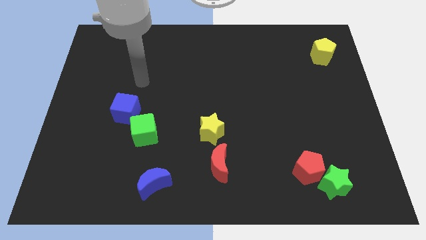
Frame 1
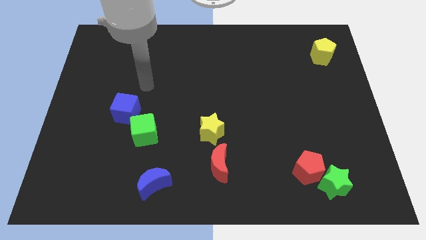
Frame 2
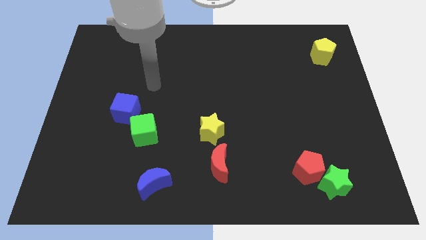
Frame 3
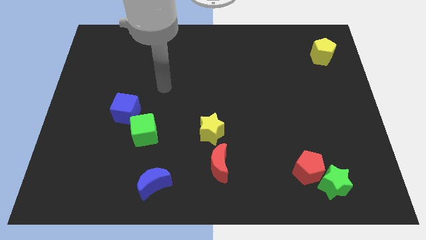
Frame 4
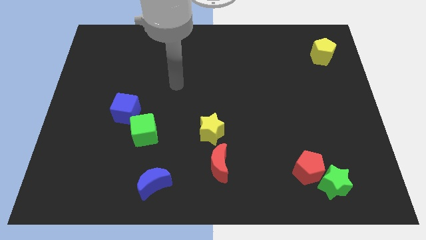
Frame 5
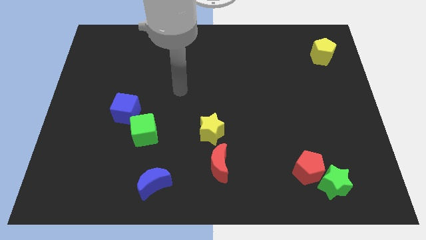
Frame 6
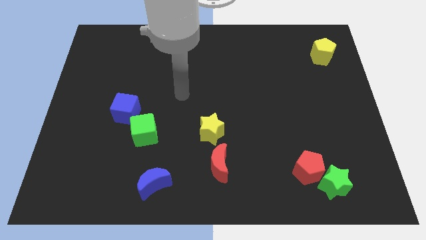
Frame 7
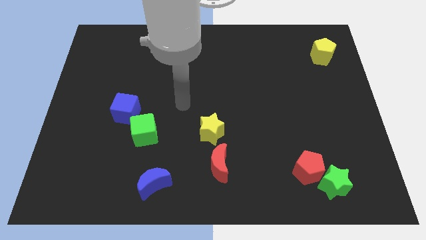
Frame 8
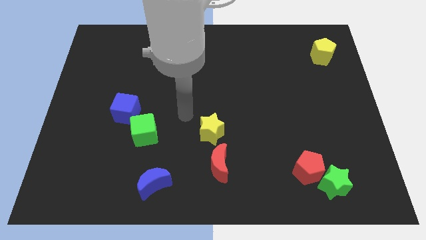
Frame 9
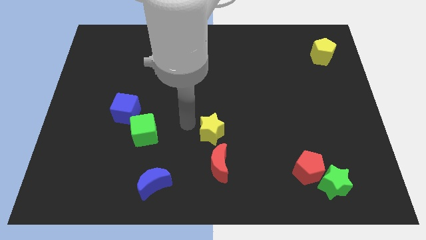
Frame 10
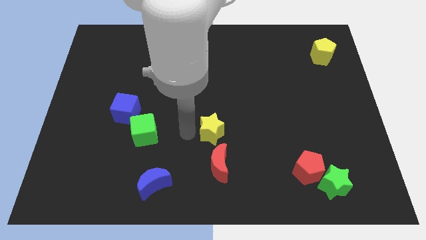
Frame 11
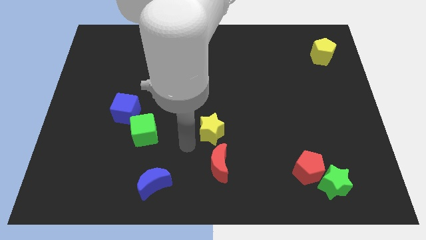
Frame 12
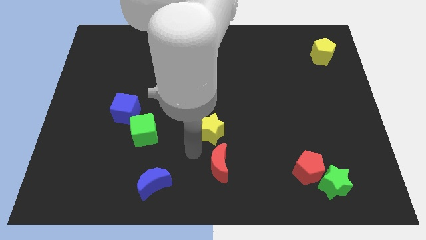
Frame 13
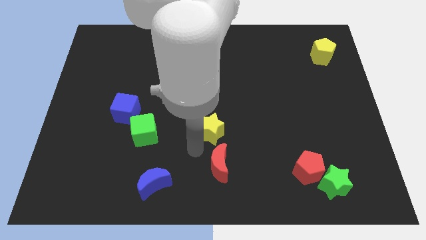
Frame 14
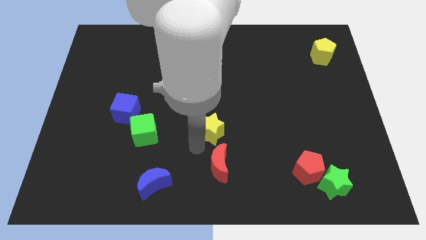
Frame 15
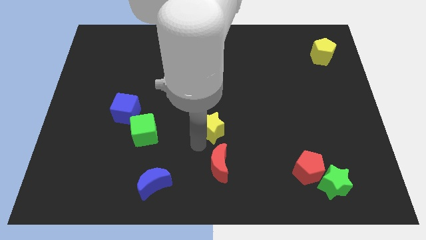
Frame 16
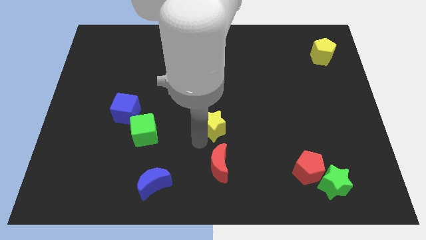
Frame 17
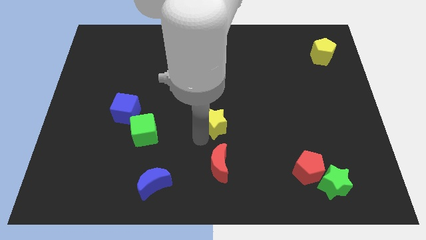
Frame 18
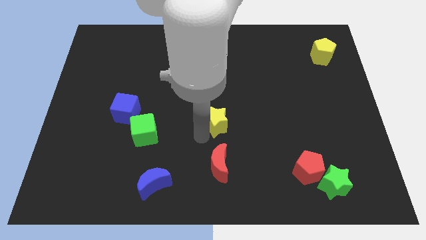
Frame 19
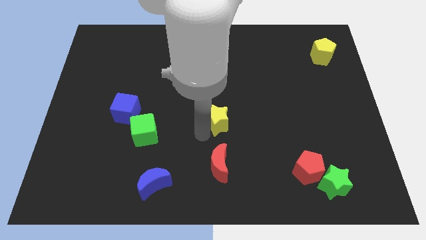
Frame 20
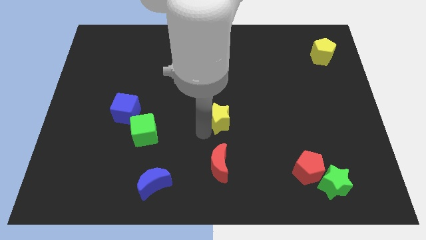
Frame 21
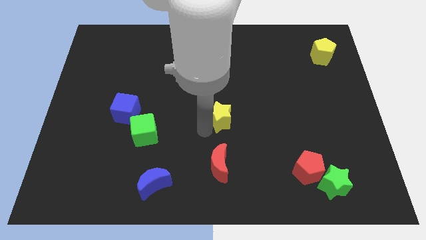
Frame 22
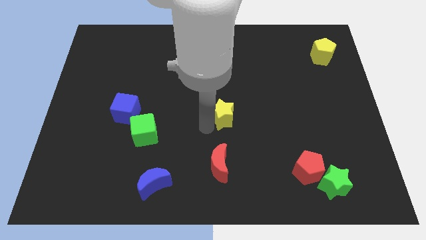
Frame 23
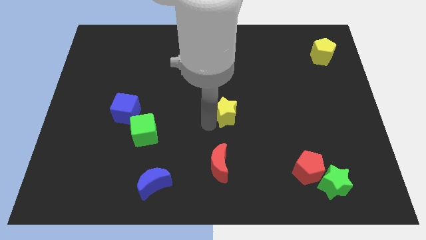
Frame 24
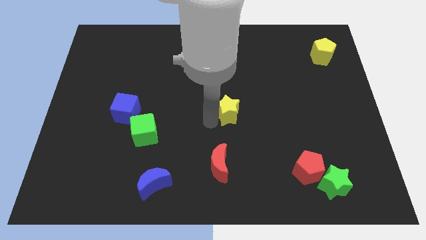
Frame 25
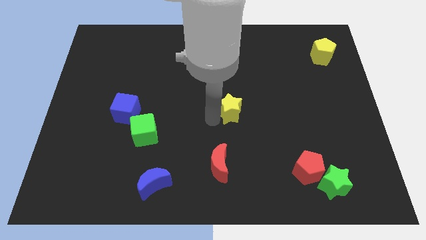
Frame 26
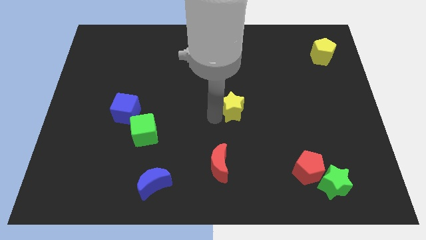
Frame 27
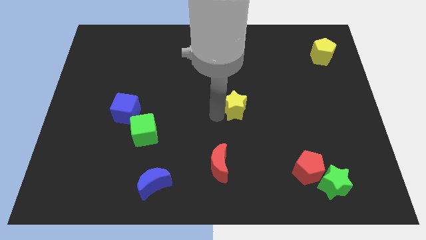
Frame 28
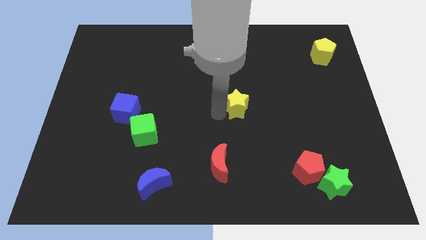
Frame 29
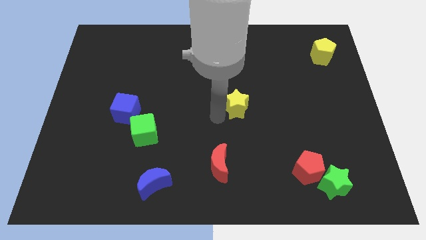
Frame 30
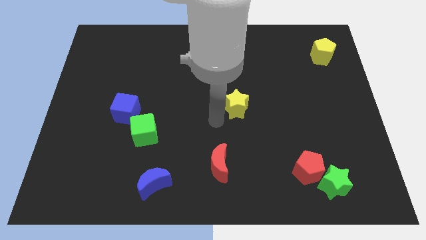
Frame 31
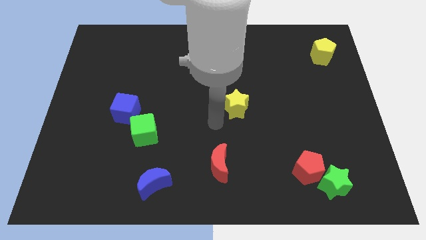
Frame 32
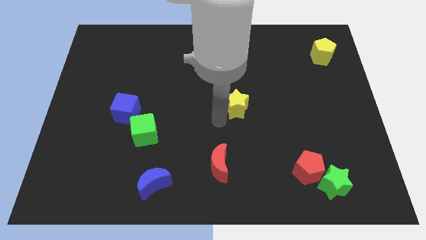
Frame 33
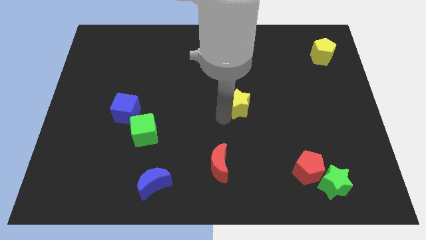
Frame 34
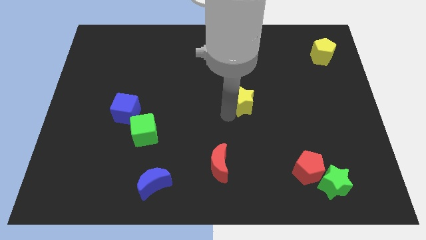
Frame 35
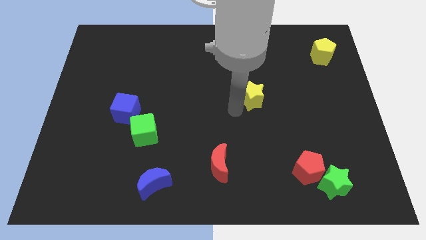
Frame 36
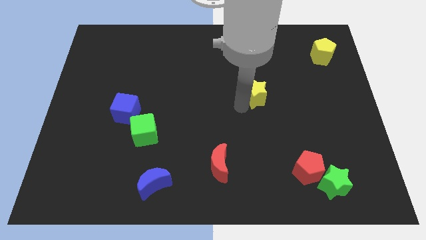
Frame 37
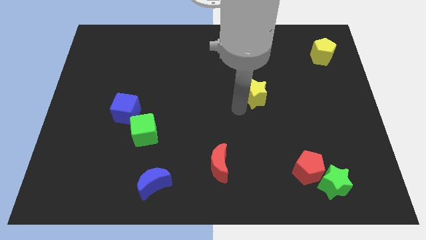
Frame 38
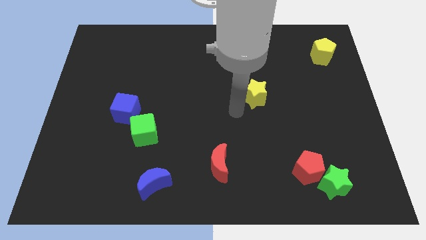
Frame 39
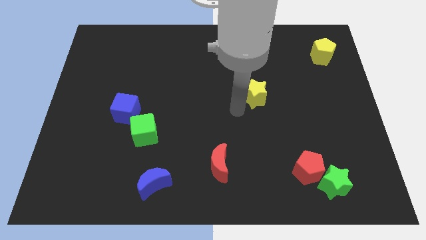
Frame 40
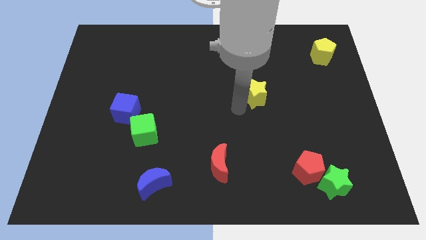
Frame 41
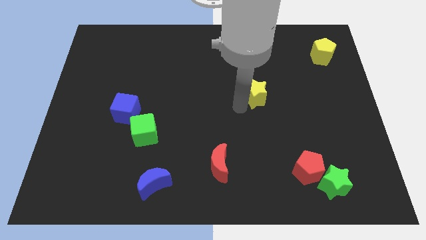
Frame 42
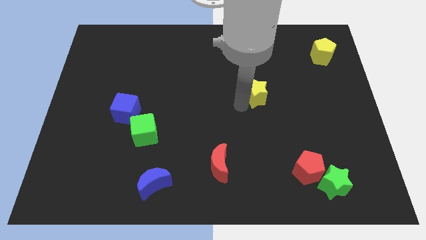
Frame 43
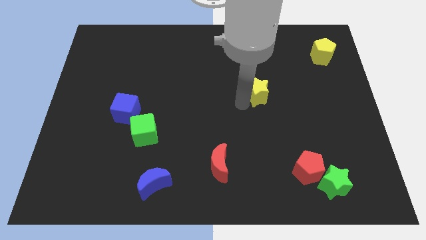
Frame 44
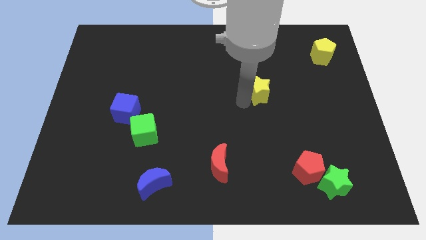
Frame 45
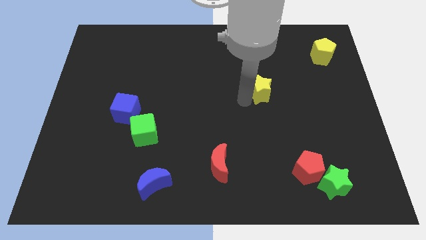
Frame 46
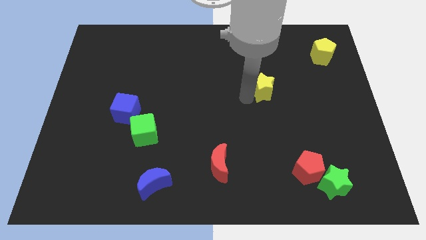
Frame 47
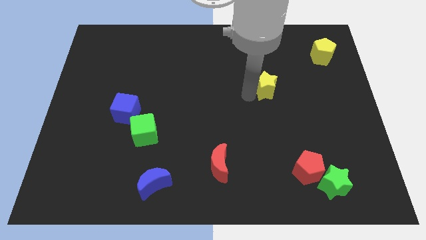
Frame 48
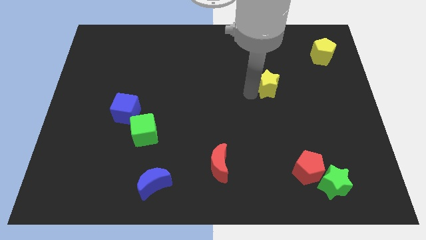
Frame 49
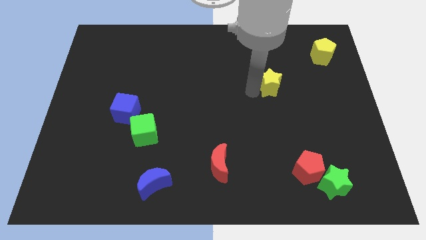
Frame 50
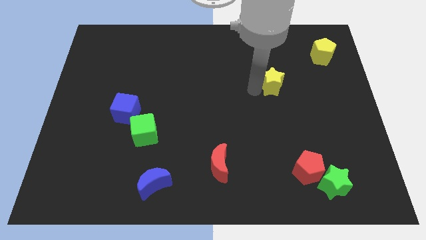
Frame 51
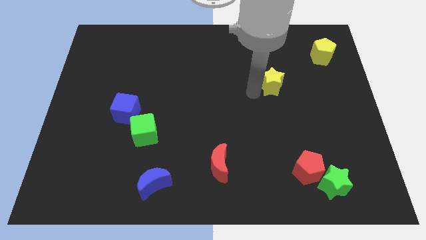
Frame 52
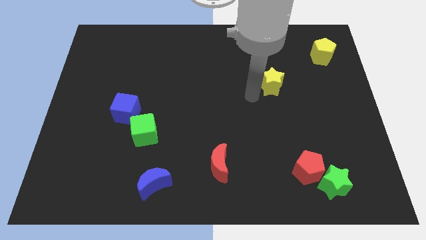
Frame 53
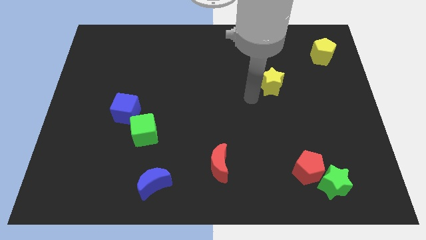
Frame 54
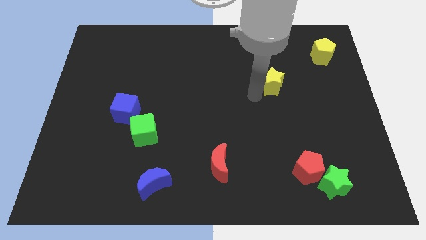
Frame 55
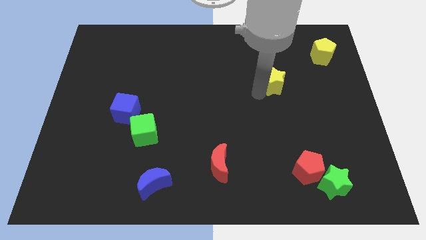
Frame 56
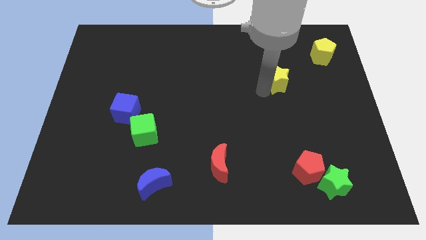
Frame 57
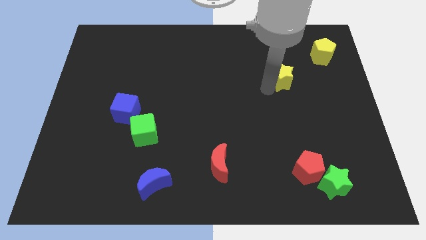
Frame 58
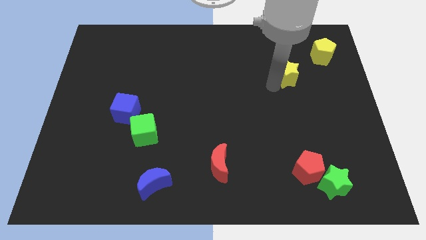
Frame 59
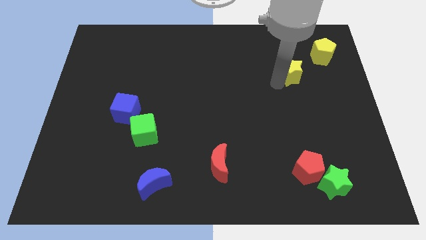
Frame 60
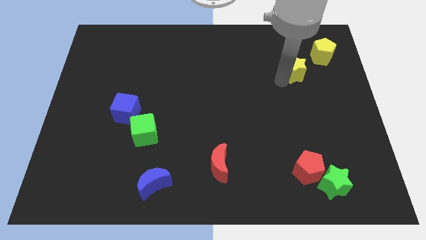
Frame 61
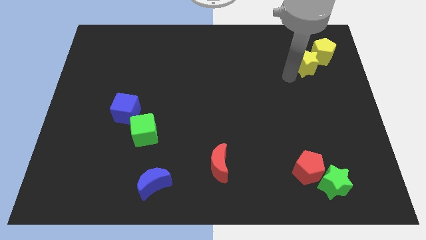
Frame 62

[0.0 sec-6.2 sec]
push the yellow star next to the yellow pentagon

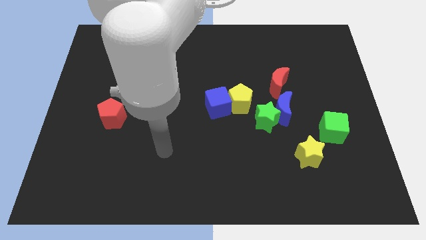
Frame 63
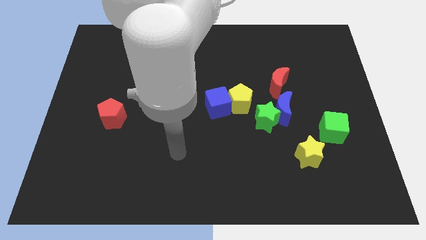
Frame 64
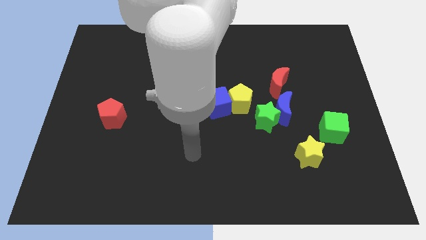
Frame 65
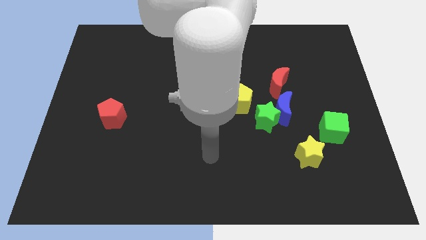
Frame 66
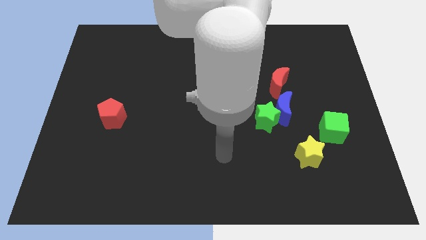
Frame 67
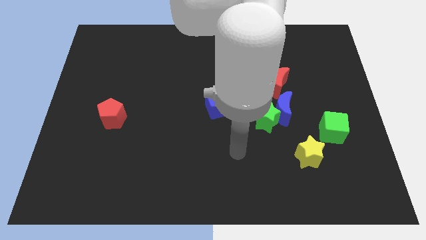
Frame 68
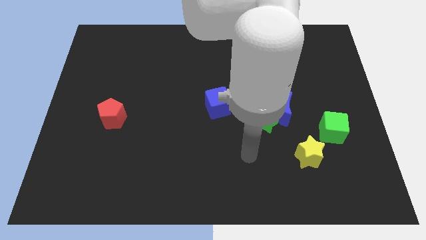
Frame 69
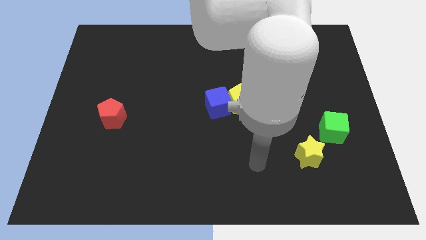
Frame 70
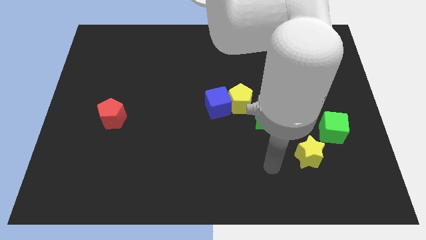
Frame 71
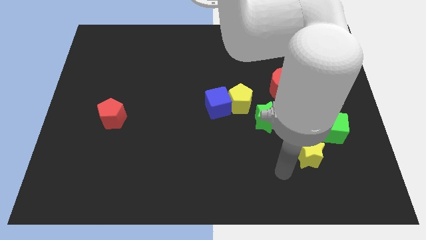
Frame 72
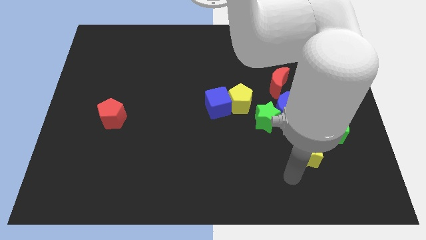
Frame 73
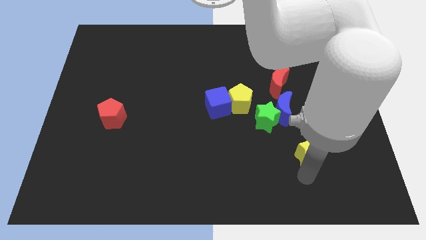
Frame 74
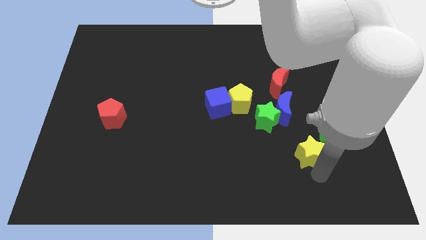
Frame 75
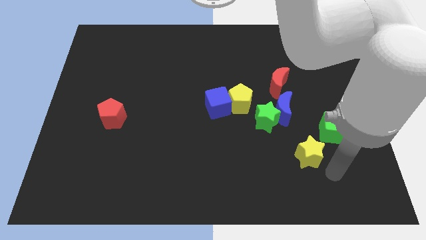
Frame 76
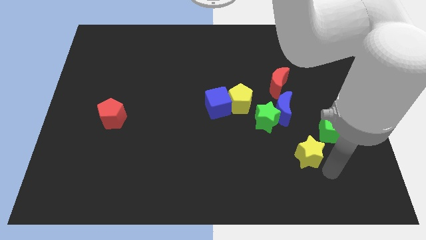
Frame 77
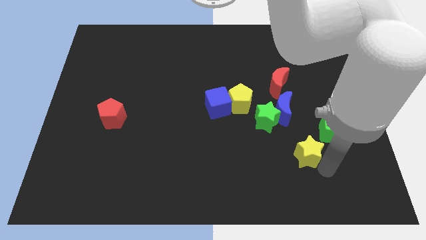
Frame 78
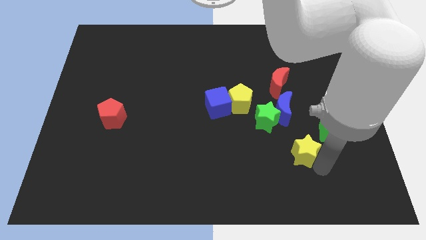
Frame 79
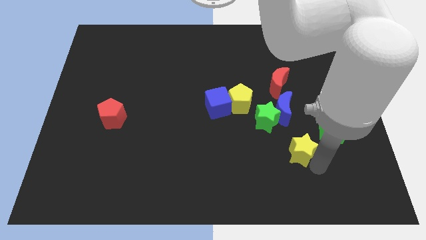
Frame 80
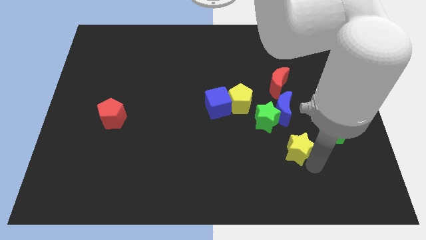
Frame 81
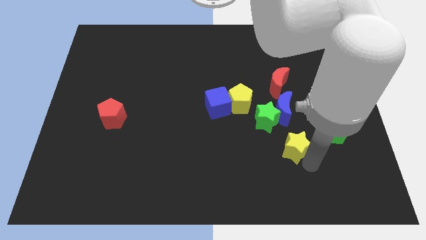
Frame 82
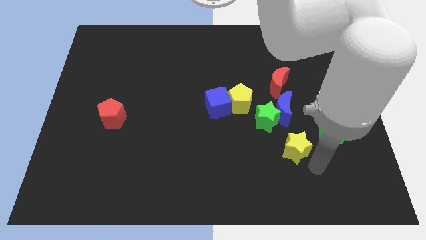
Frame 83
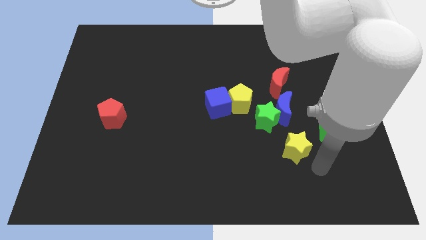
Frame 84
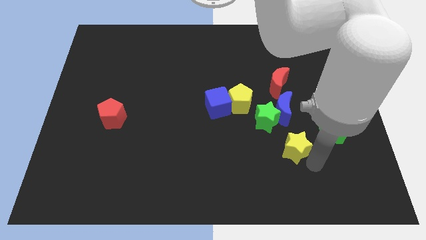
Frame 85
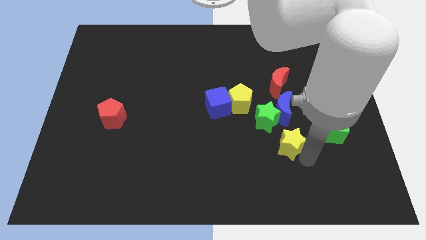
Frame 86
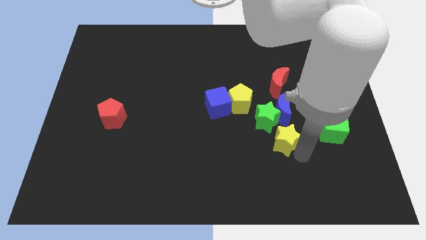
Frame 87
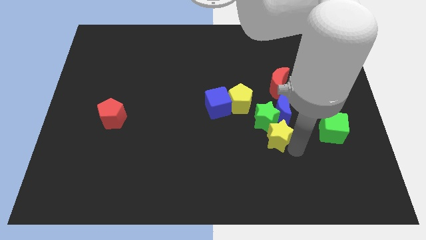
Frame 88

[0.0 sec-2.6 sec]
push the yellow star next to the green star
